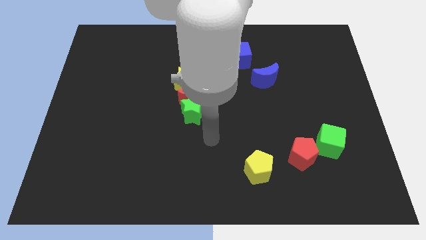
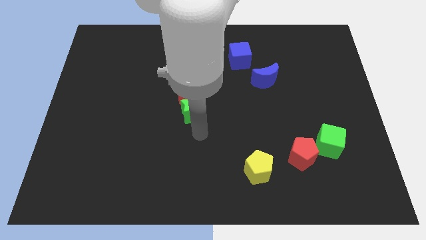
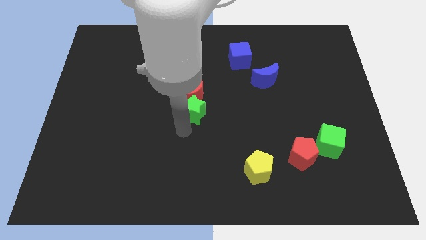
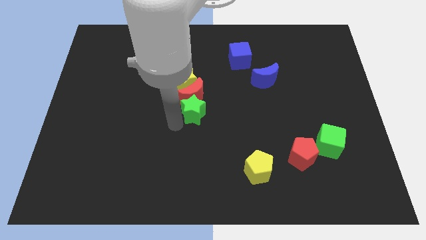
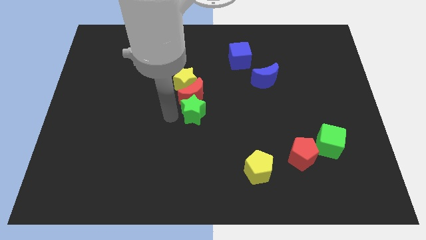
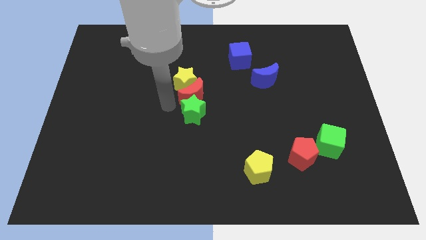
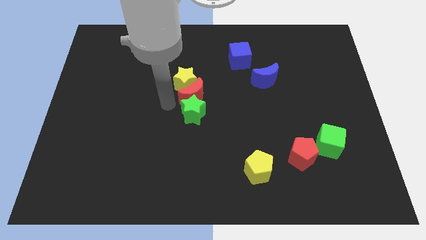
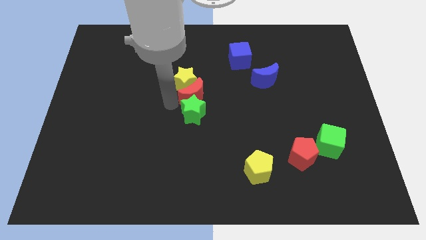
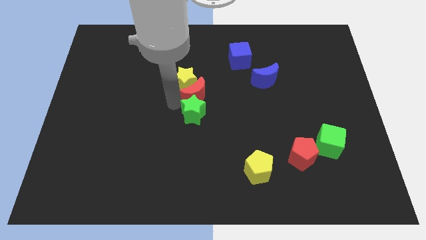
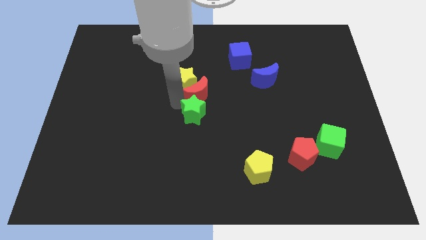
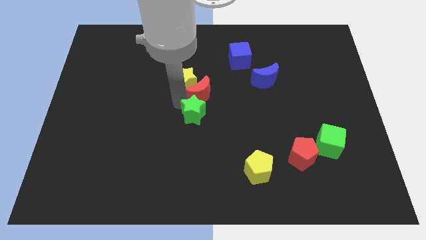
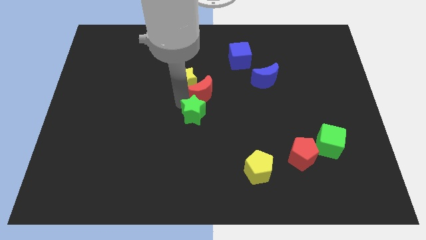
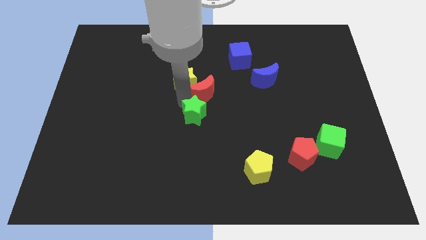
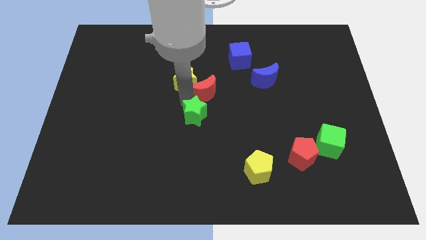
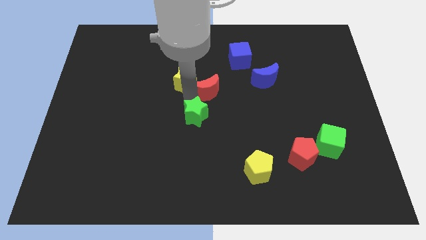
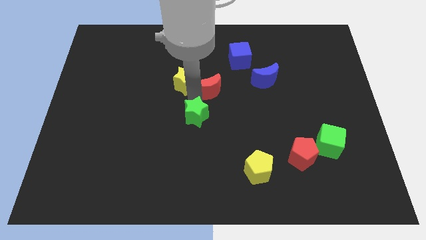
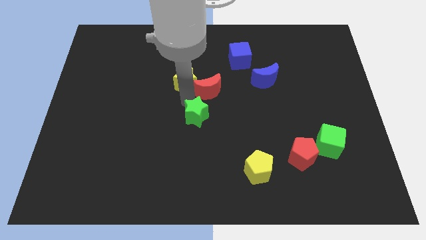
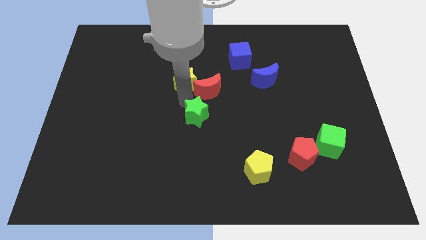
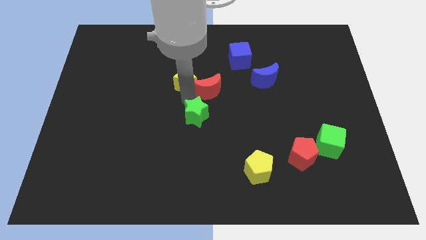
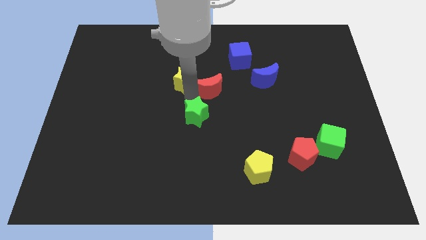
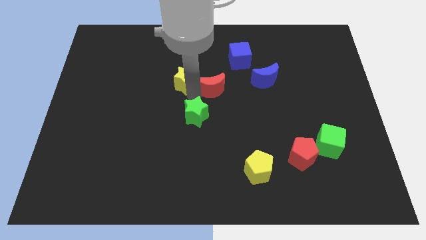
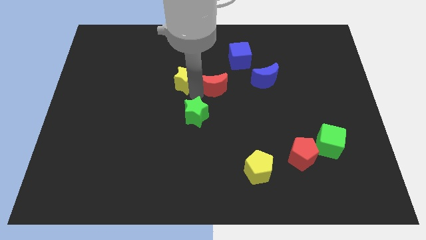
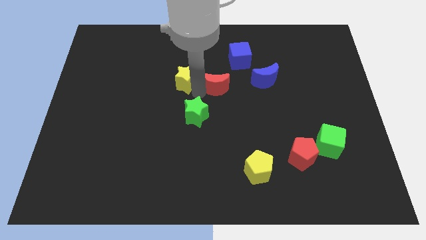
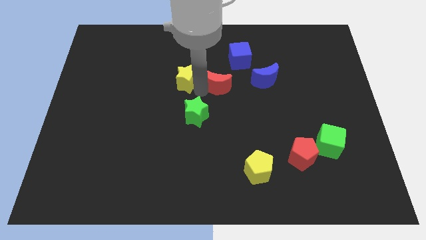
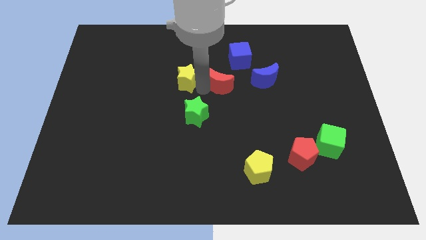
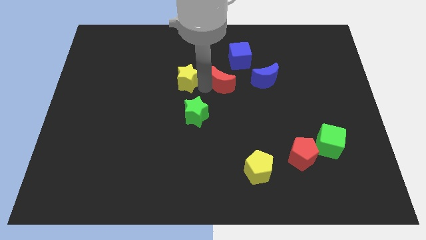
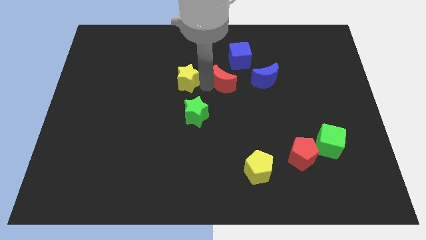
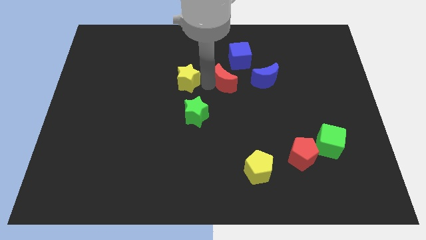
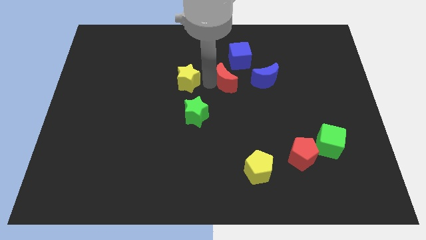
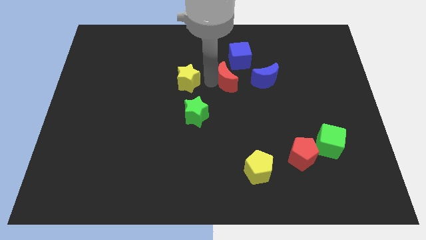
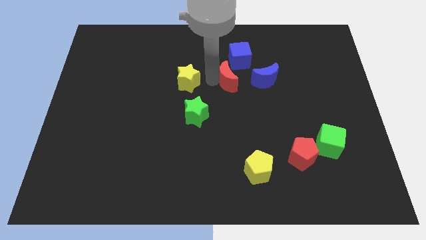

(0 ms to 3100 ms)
separate the red moon from the yellow star and green star

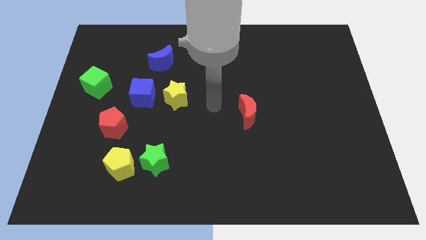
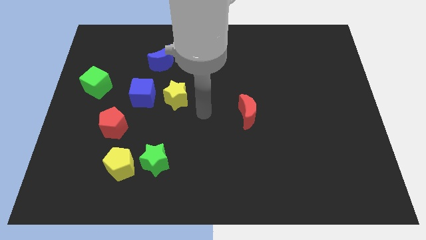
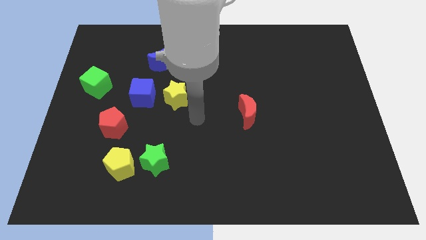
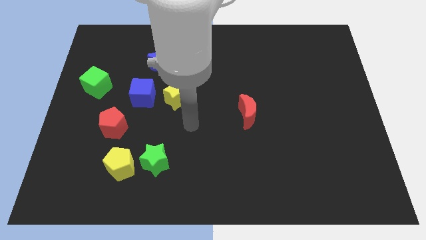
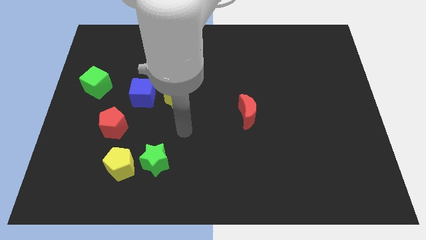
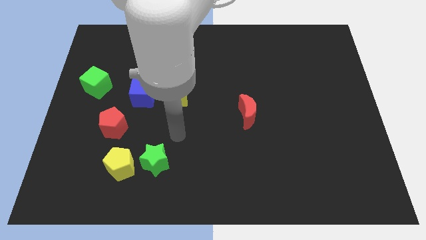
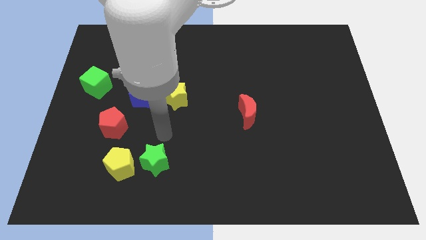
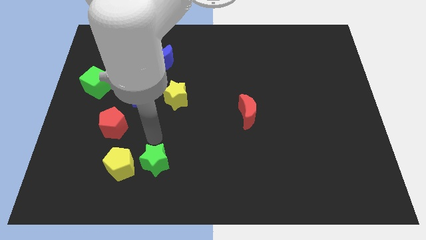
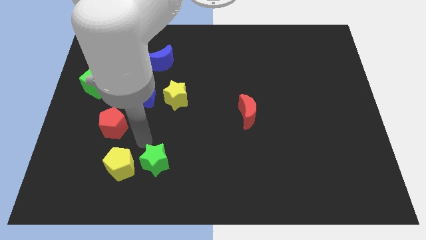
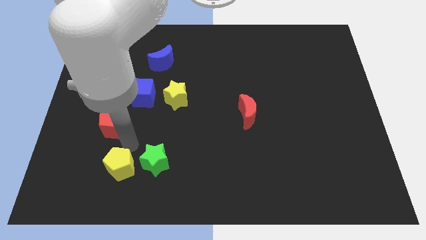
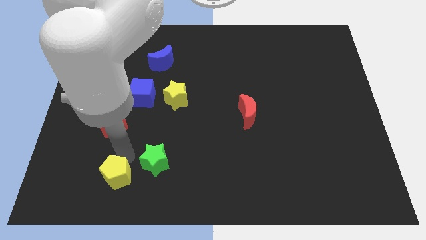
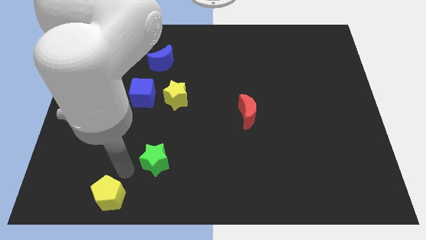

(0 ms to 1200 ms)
separate the green star from the yellow pentagon

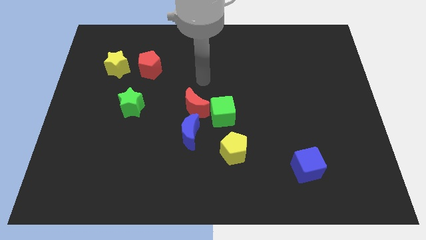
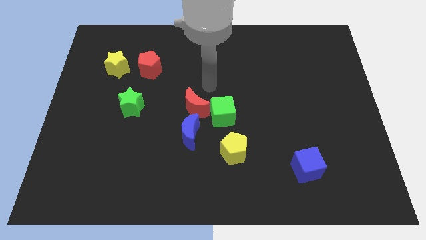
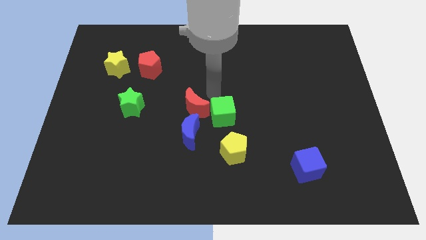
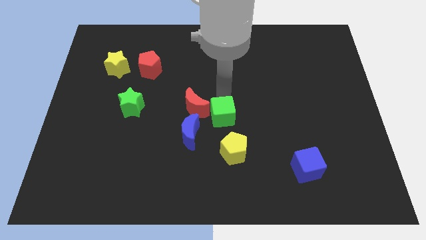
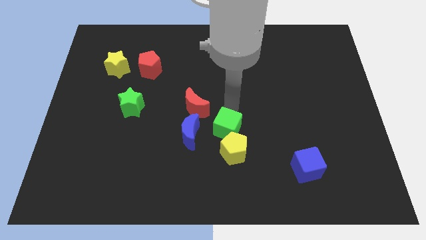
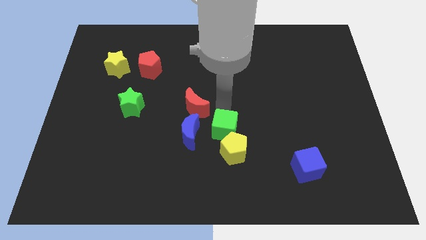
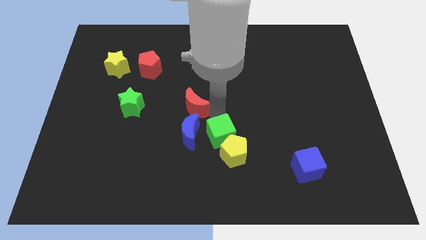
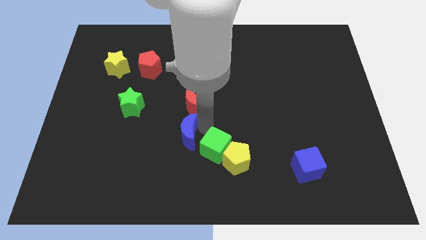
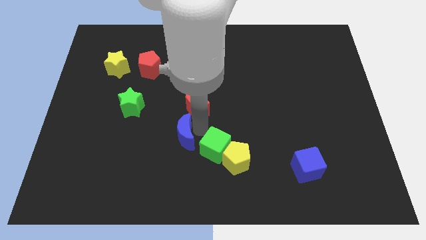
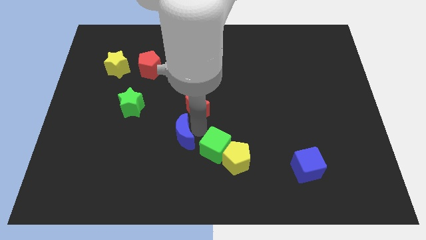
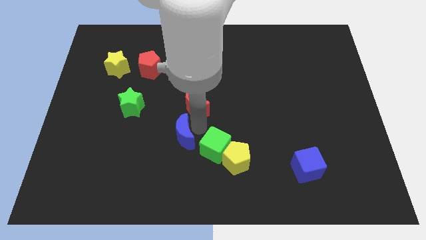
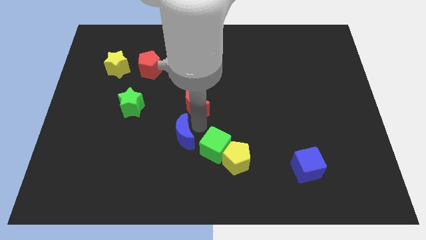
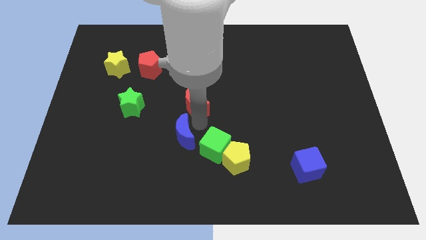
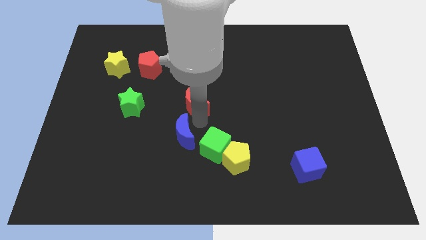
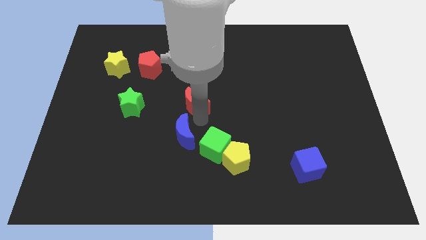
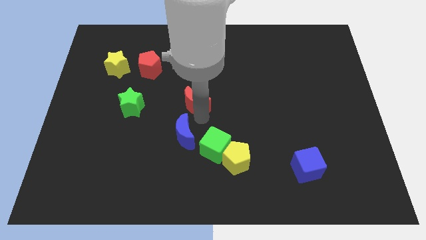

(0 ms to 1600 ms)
pull the red moon apart from the green cube and blue moon

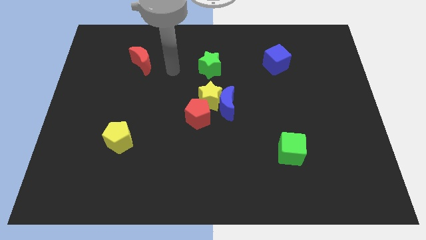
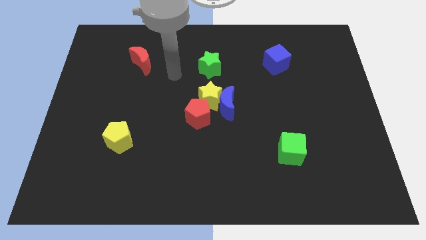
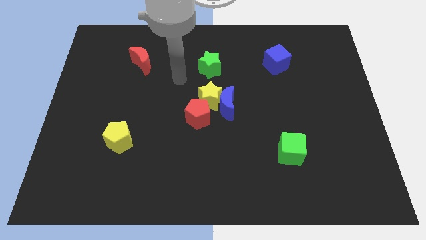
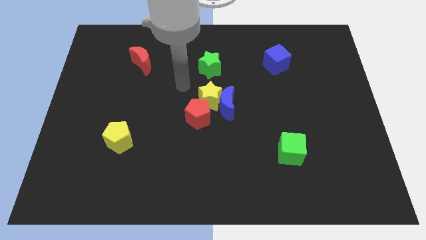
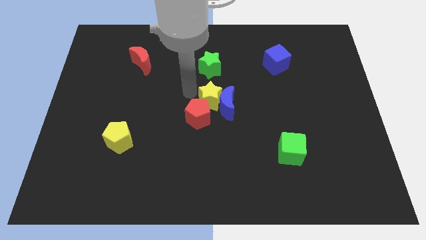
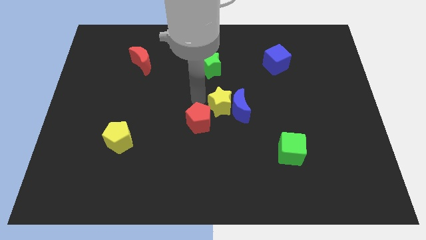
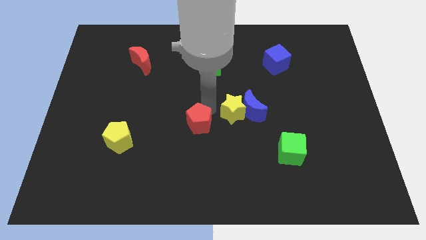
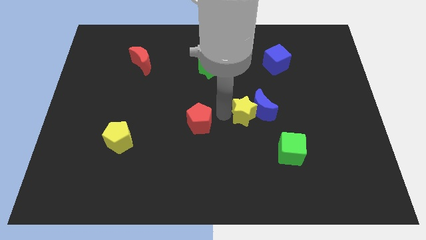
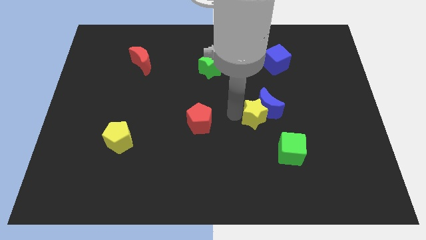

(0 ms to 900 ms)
move the blue moon away from the yellow star and red pentagon

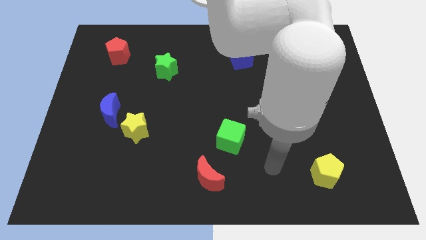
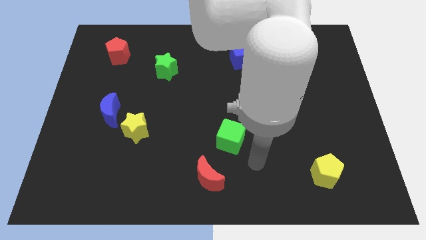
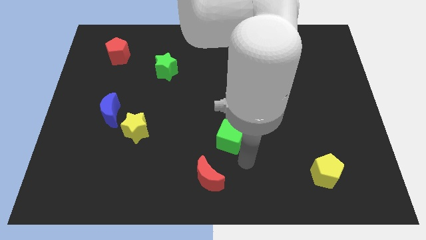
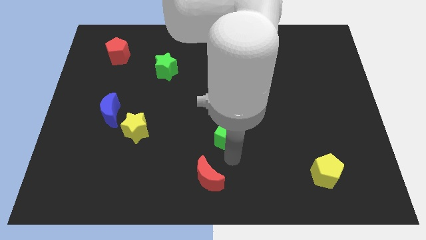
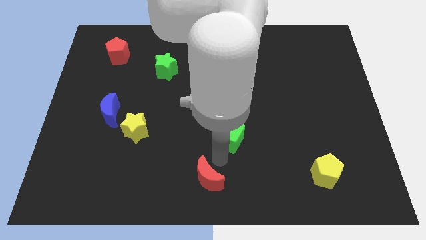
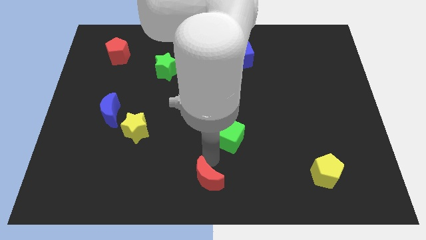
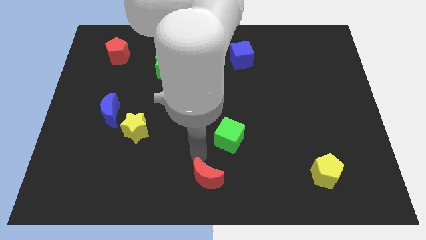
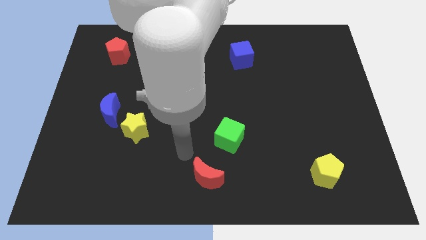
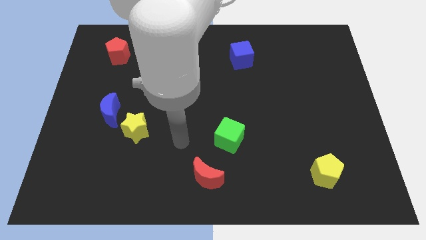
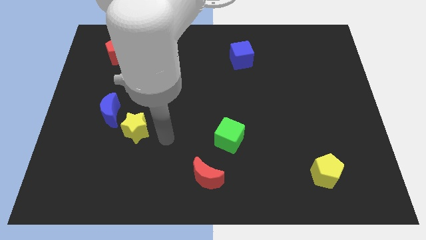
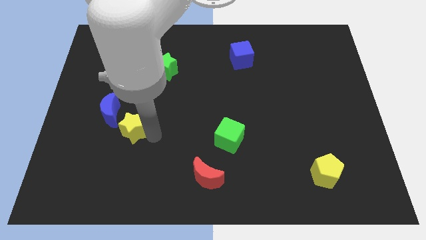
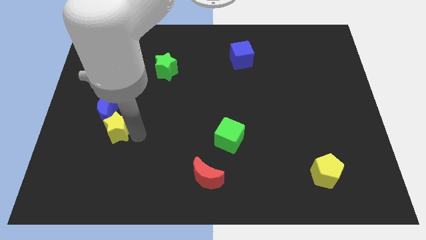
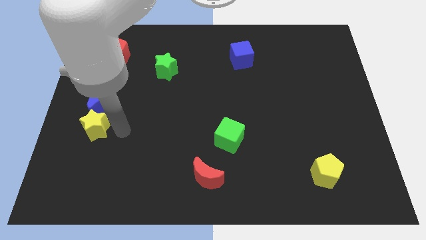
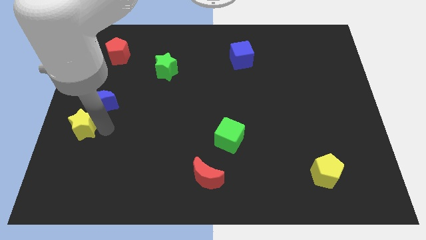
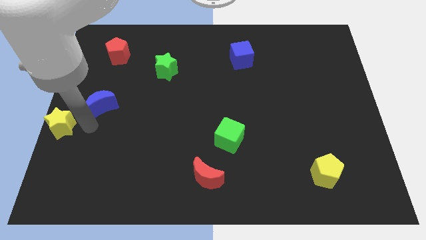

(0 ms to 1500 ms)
move the blue moon away from the yellow star

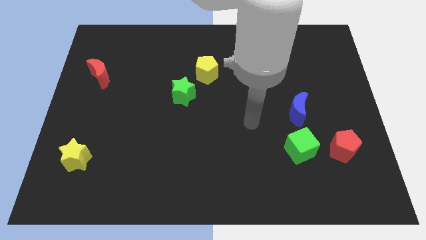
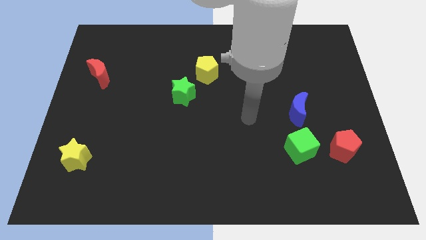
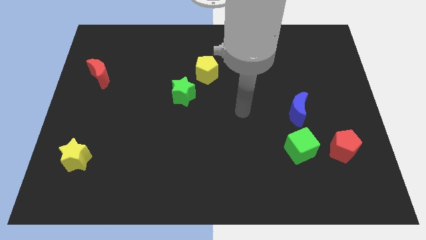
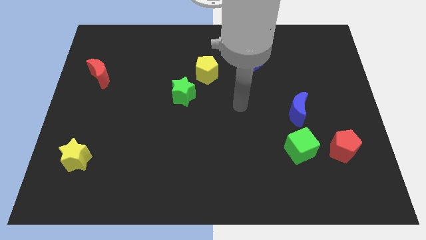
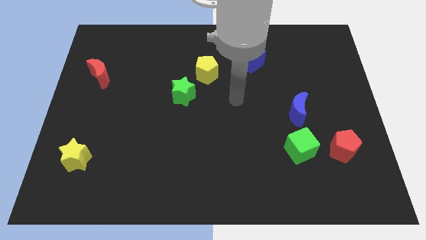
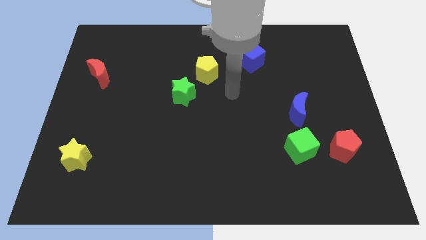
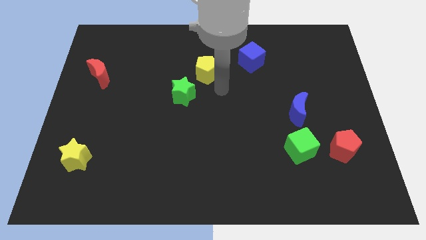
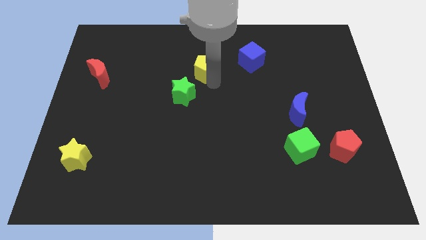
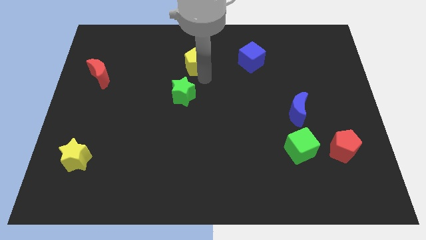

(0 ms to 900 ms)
move the green star away from the yellow pentagon
